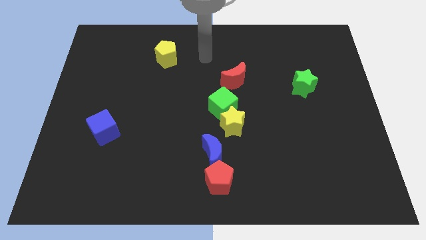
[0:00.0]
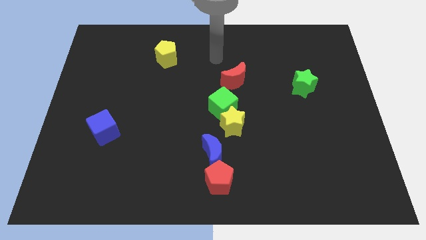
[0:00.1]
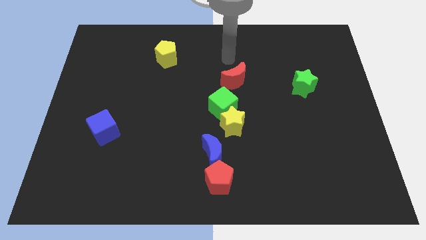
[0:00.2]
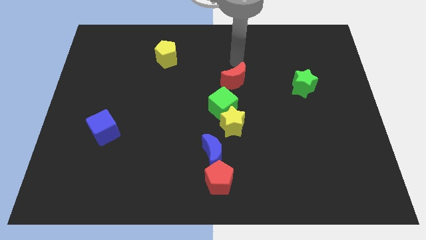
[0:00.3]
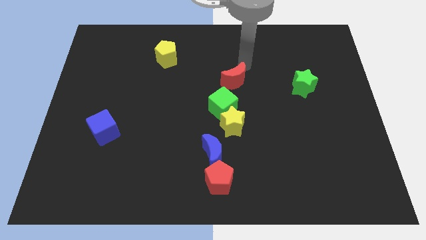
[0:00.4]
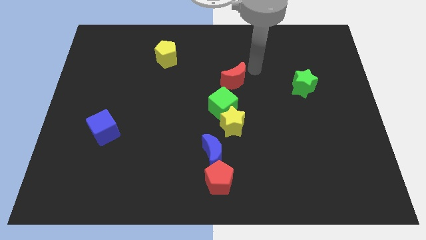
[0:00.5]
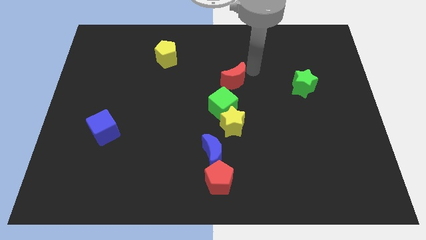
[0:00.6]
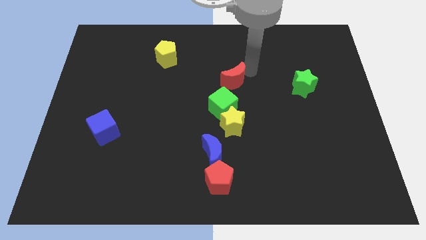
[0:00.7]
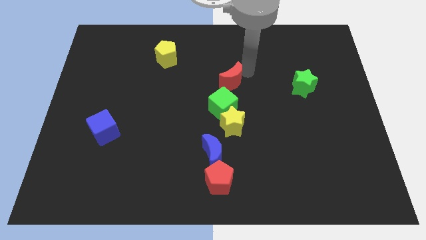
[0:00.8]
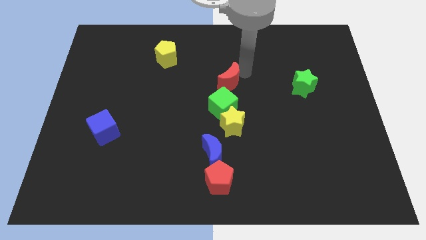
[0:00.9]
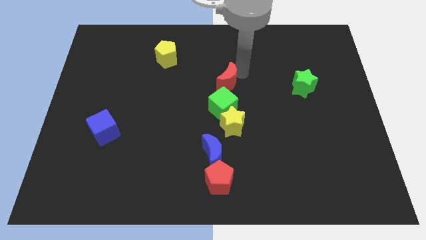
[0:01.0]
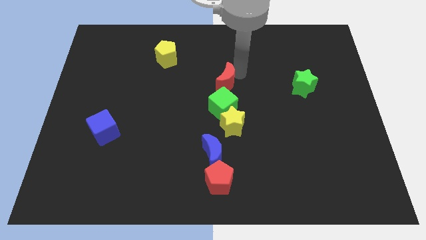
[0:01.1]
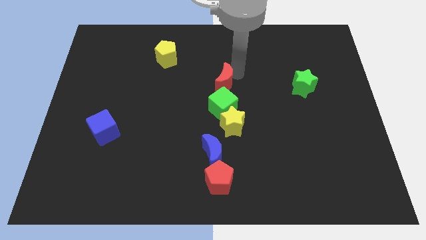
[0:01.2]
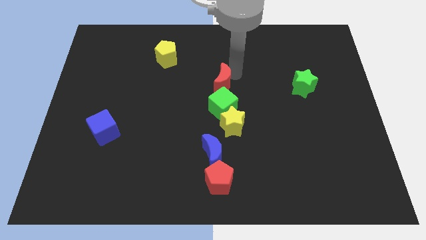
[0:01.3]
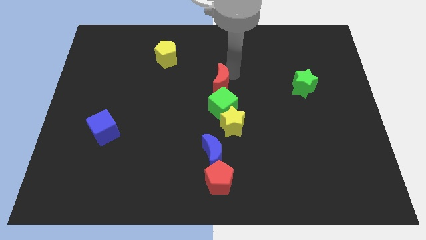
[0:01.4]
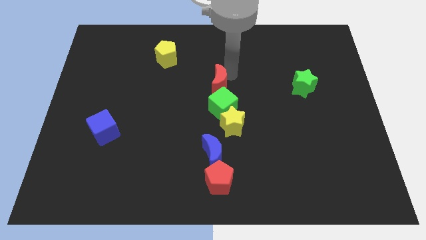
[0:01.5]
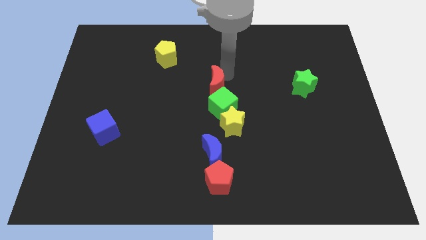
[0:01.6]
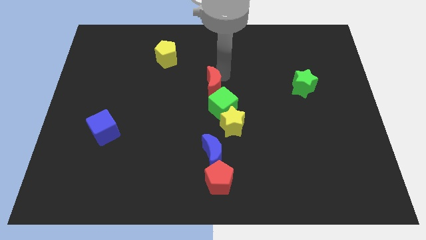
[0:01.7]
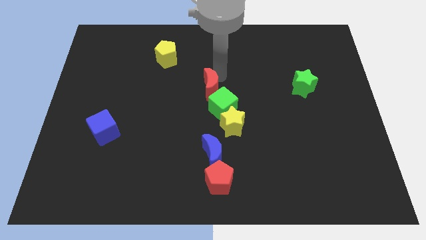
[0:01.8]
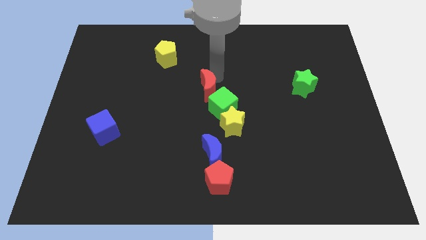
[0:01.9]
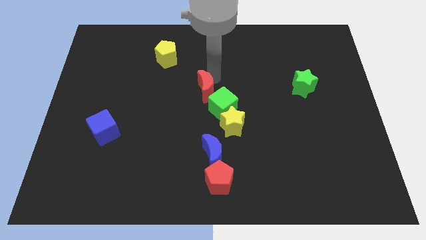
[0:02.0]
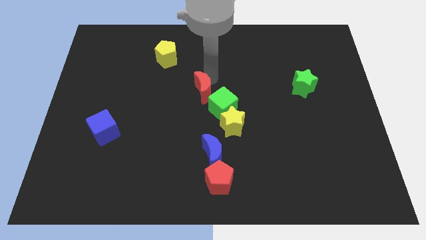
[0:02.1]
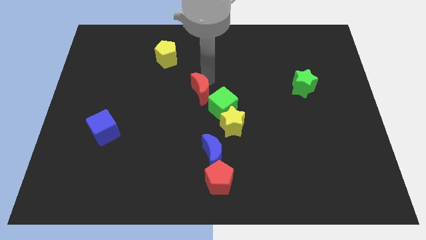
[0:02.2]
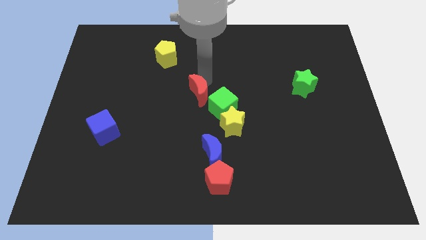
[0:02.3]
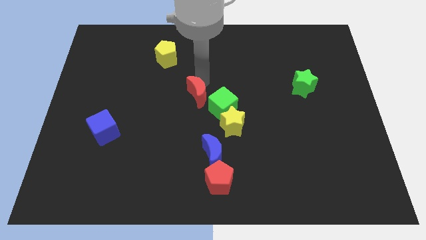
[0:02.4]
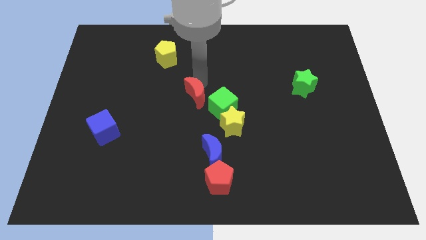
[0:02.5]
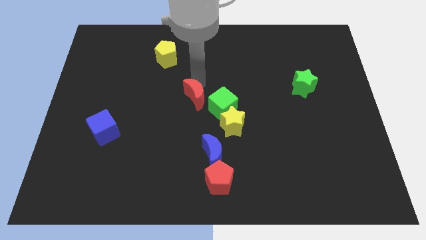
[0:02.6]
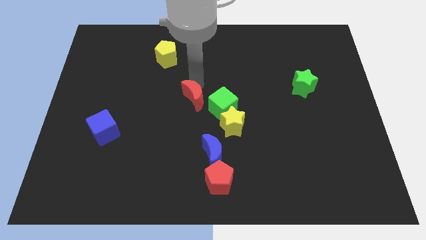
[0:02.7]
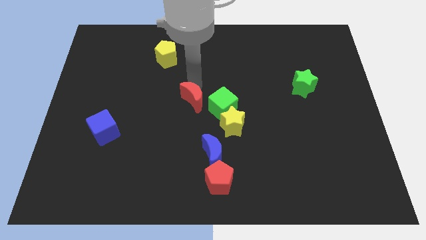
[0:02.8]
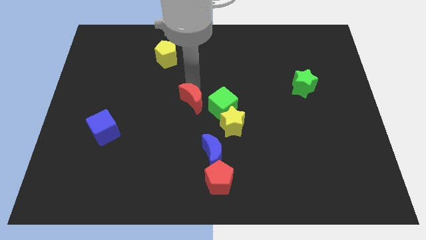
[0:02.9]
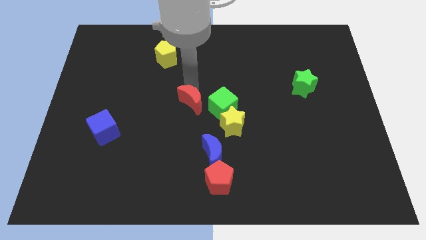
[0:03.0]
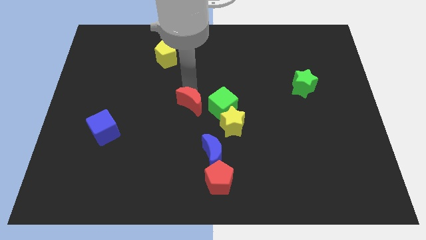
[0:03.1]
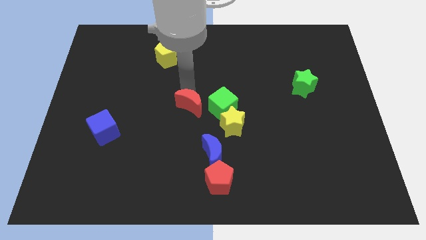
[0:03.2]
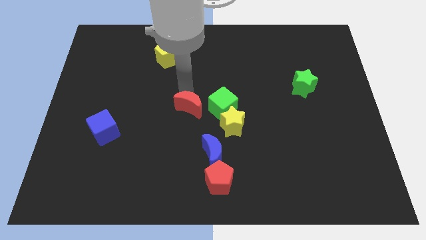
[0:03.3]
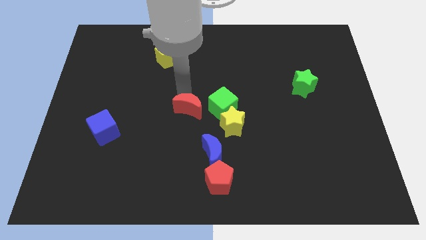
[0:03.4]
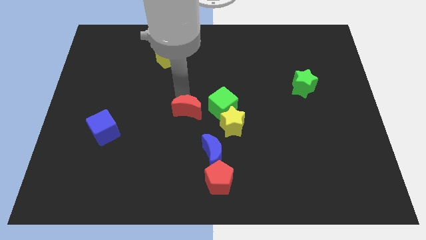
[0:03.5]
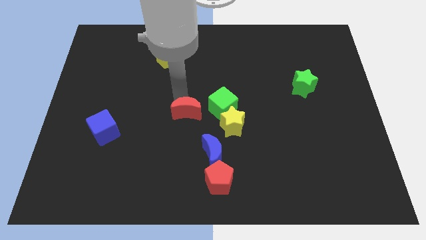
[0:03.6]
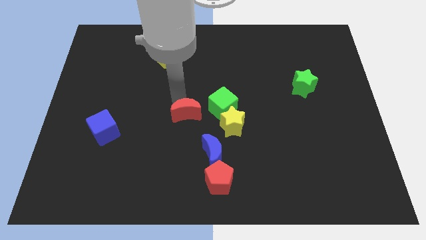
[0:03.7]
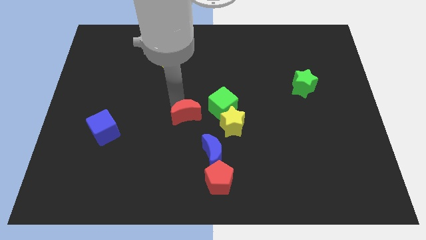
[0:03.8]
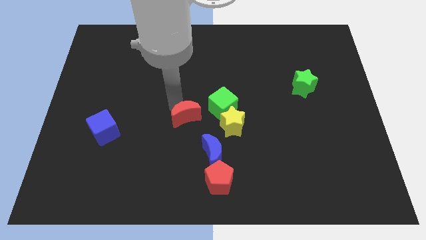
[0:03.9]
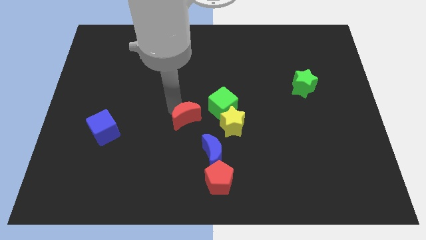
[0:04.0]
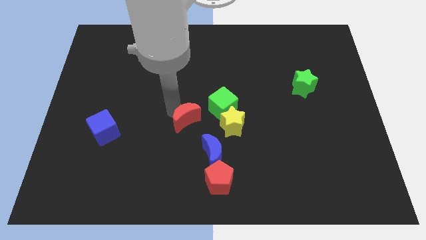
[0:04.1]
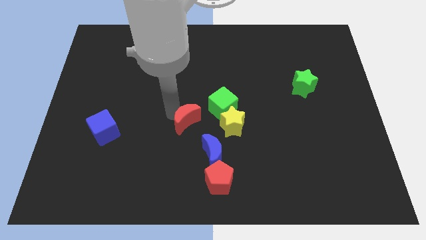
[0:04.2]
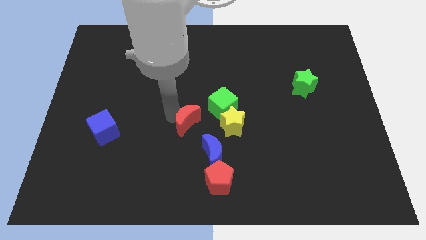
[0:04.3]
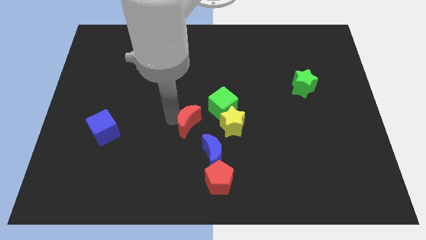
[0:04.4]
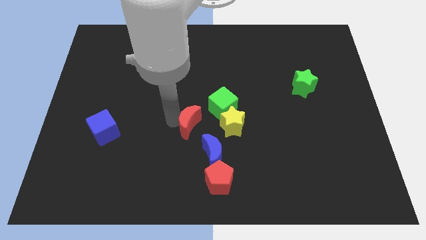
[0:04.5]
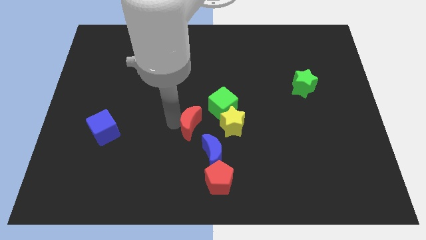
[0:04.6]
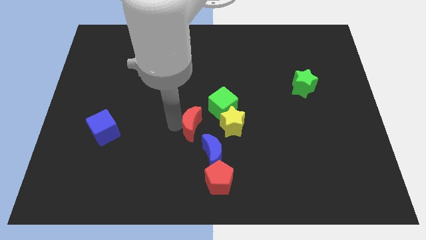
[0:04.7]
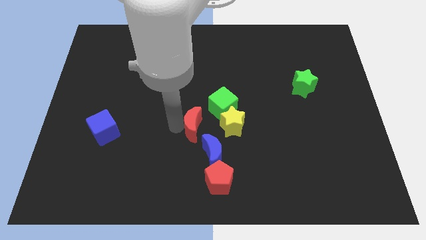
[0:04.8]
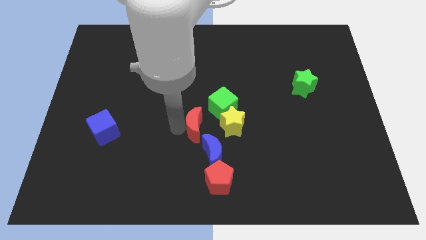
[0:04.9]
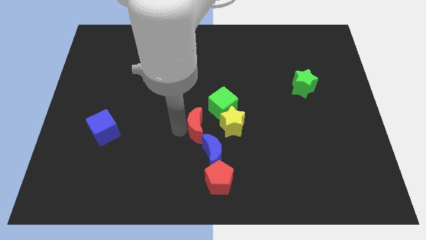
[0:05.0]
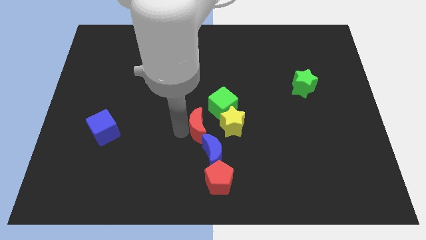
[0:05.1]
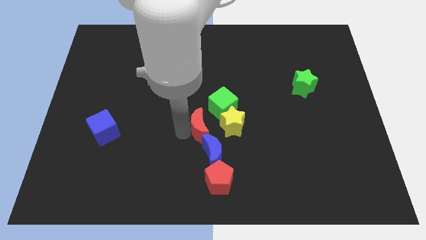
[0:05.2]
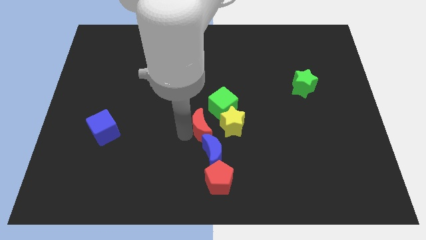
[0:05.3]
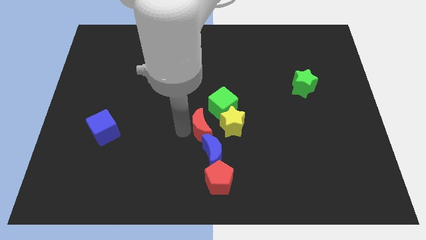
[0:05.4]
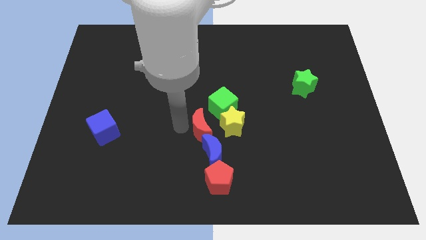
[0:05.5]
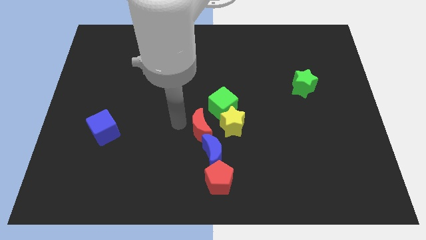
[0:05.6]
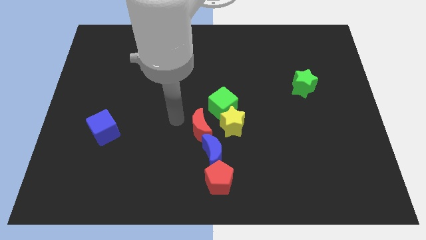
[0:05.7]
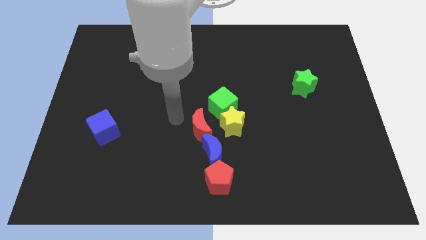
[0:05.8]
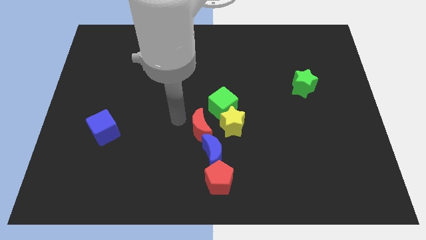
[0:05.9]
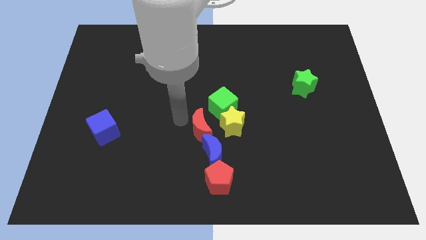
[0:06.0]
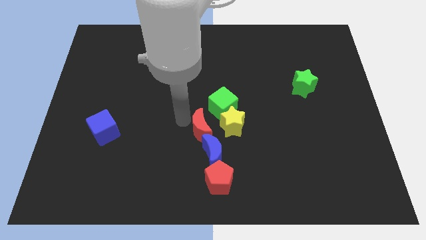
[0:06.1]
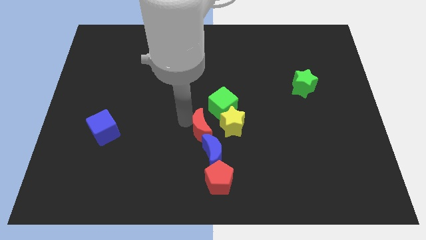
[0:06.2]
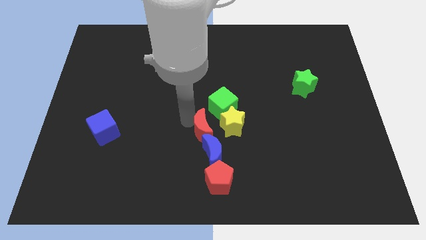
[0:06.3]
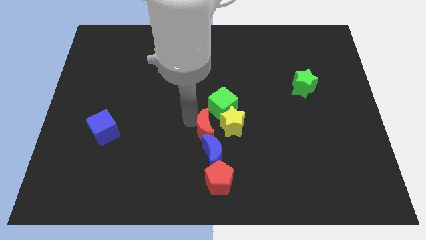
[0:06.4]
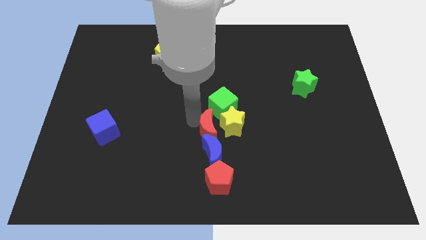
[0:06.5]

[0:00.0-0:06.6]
push the red moon close to the blue moon
